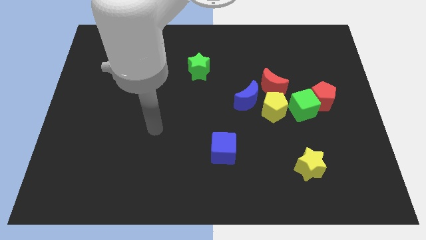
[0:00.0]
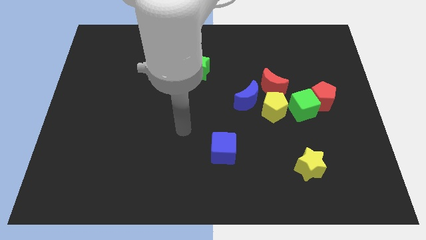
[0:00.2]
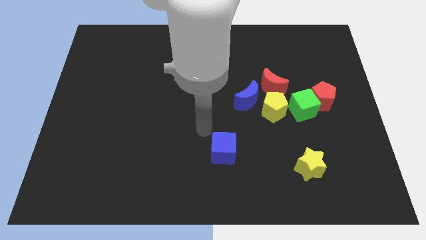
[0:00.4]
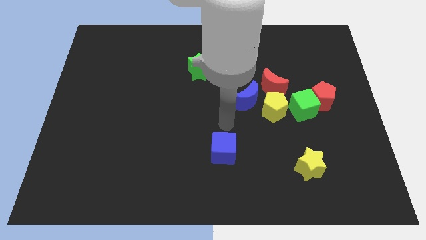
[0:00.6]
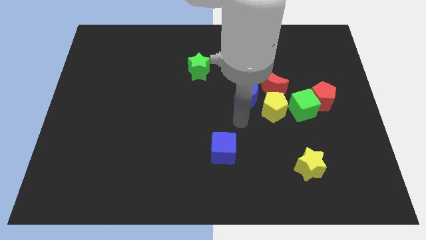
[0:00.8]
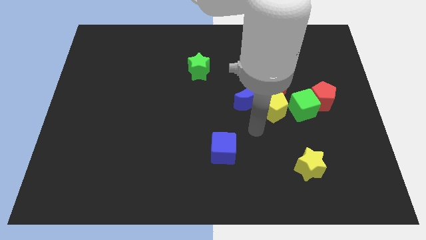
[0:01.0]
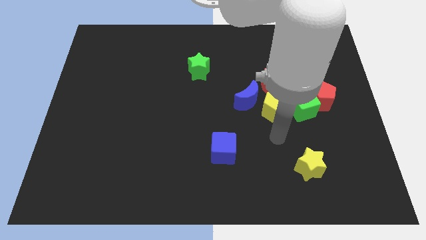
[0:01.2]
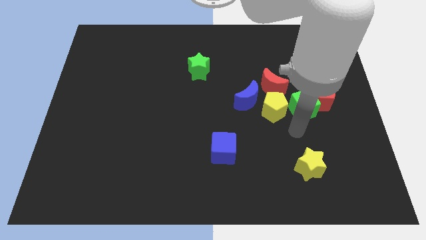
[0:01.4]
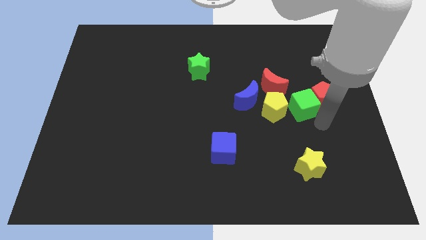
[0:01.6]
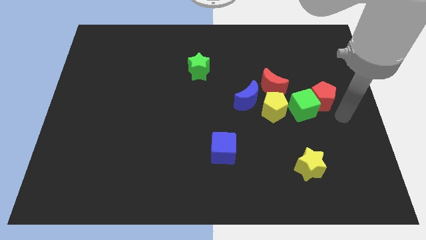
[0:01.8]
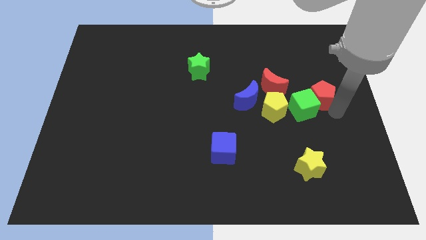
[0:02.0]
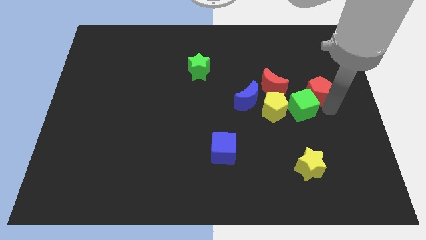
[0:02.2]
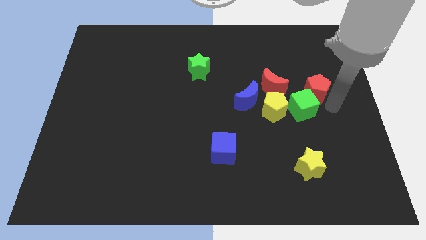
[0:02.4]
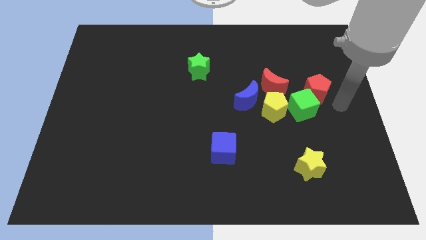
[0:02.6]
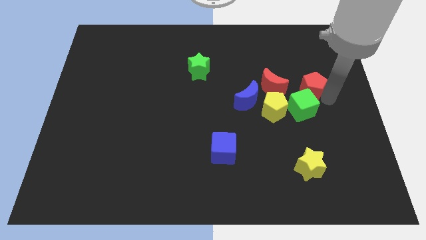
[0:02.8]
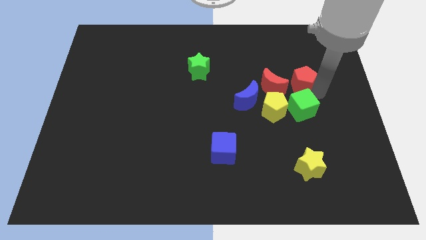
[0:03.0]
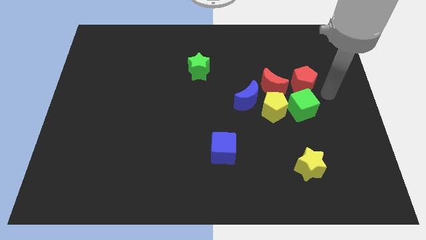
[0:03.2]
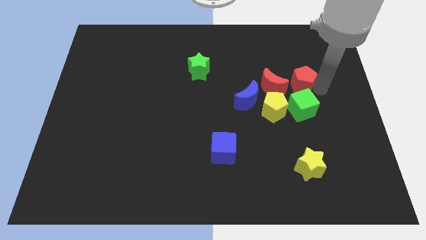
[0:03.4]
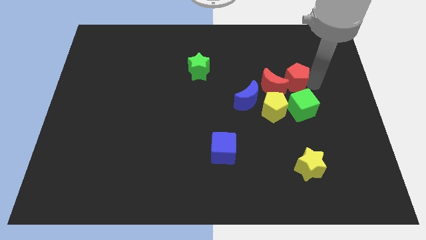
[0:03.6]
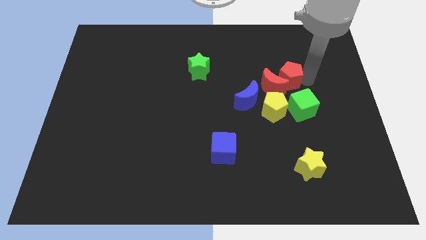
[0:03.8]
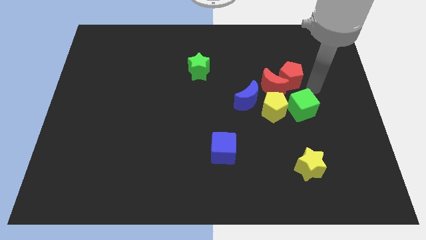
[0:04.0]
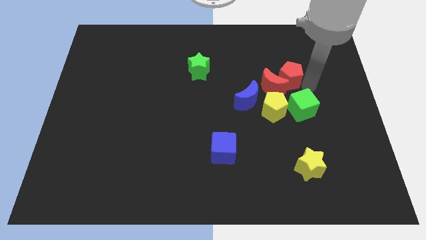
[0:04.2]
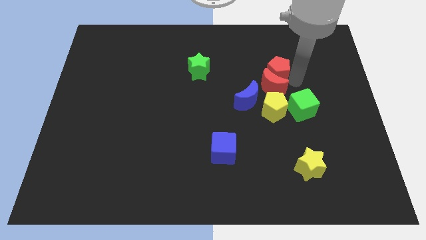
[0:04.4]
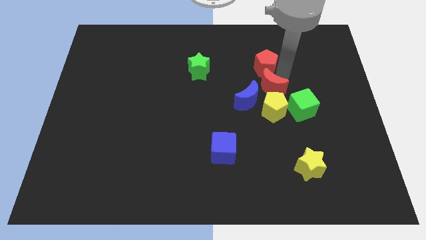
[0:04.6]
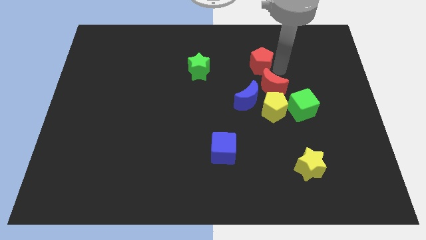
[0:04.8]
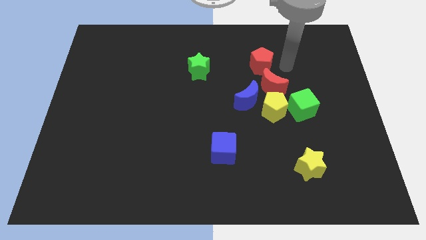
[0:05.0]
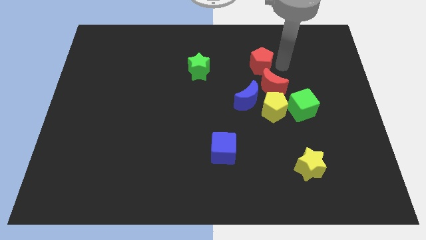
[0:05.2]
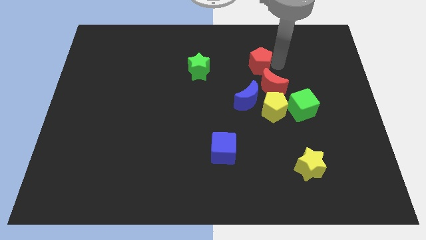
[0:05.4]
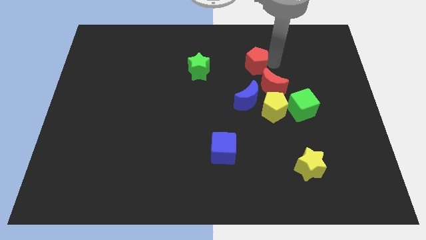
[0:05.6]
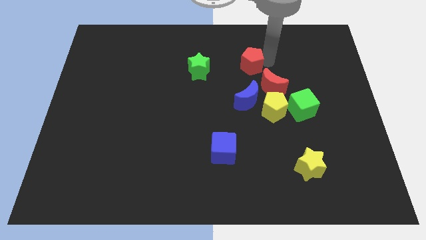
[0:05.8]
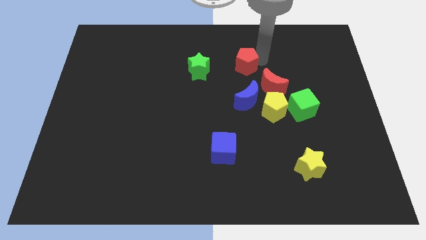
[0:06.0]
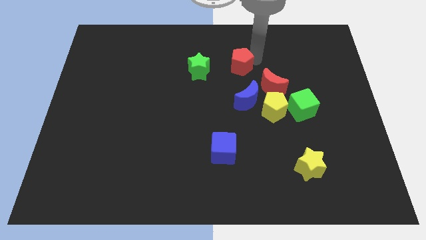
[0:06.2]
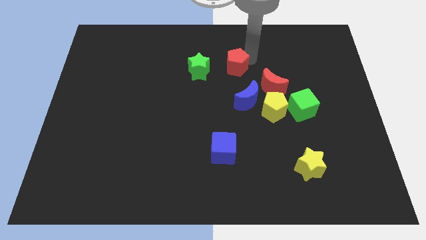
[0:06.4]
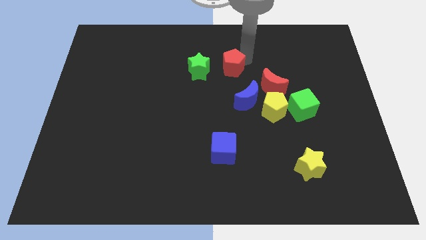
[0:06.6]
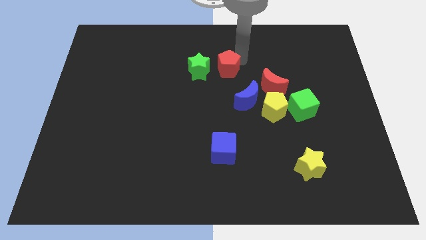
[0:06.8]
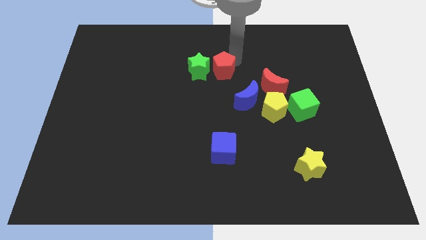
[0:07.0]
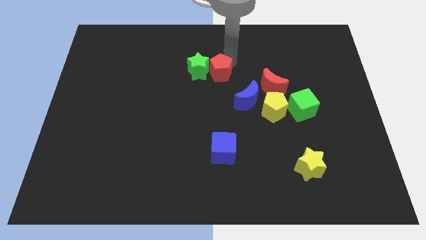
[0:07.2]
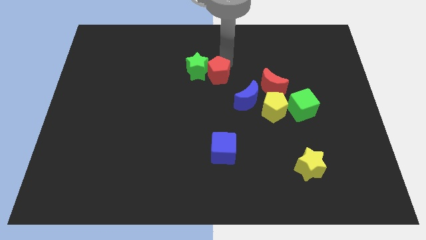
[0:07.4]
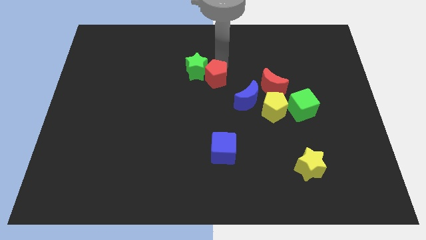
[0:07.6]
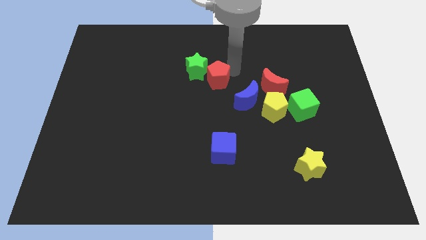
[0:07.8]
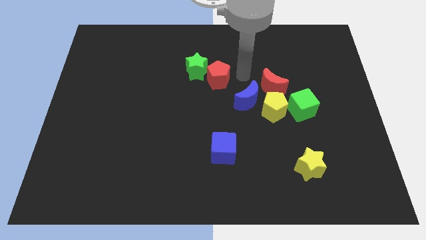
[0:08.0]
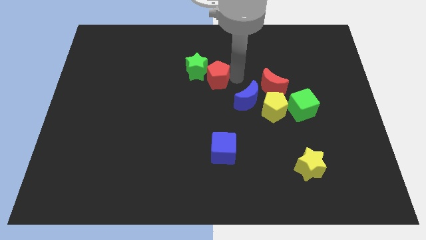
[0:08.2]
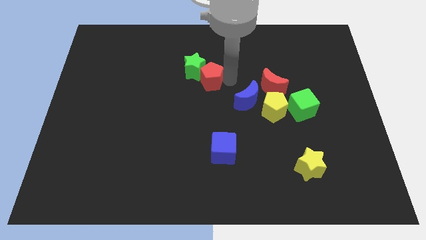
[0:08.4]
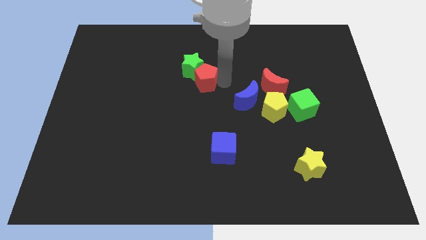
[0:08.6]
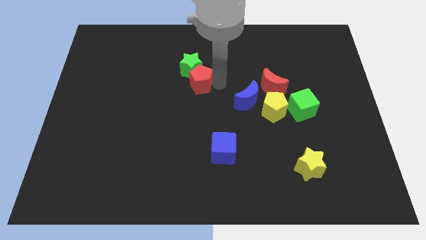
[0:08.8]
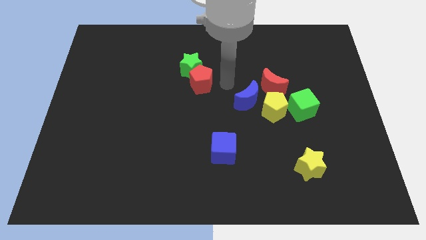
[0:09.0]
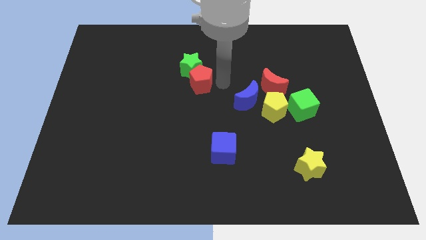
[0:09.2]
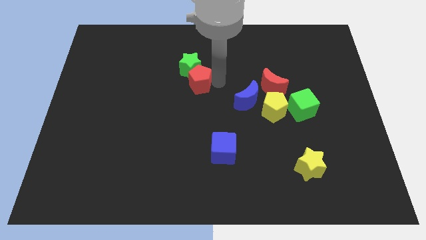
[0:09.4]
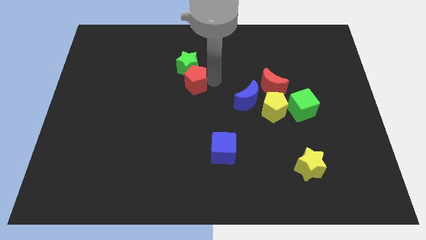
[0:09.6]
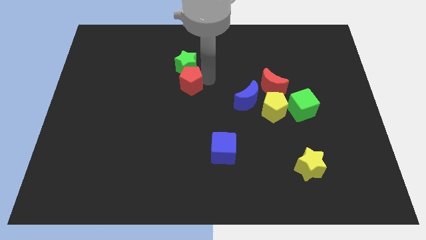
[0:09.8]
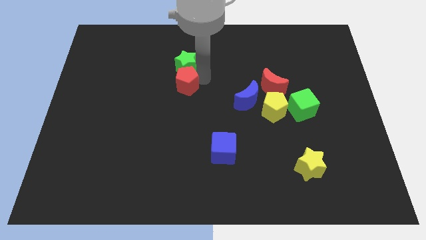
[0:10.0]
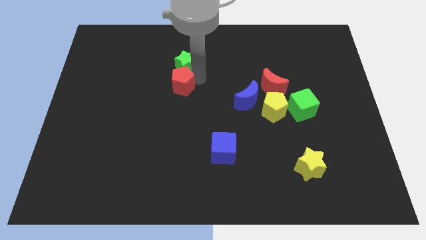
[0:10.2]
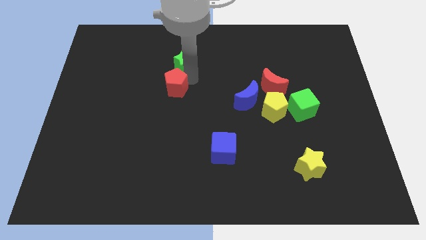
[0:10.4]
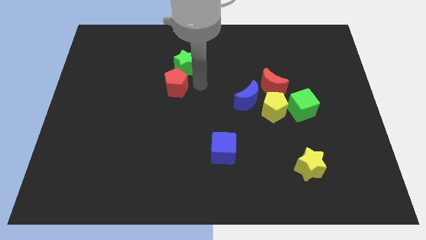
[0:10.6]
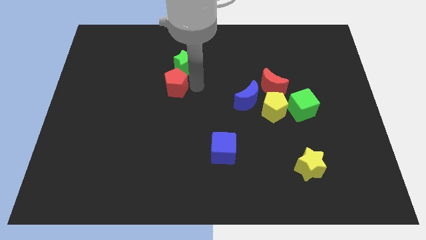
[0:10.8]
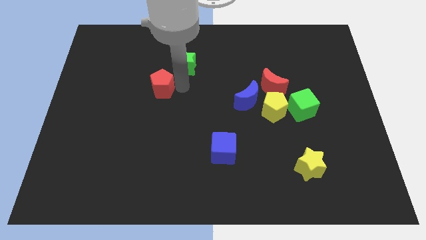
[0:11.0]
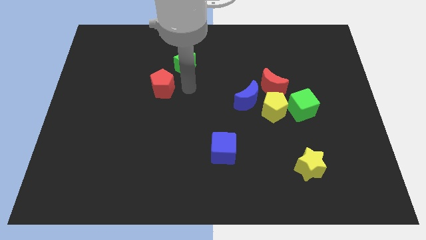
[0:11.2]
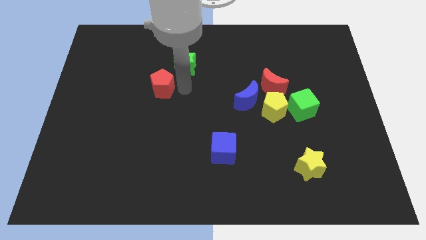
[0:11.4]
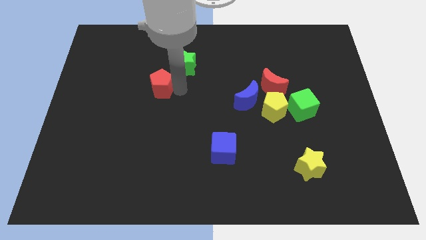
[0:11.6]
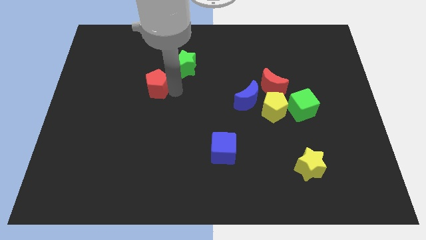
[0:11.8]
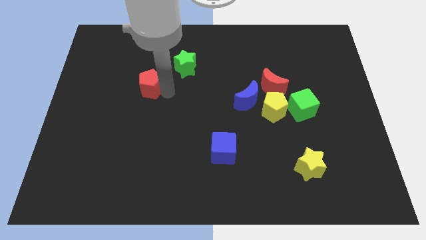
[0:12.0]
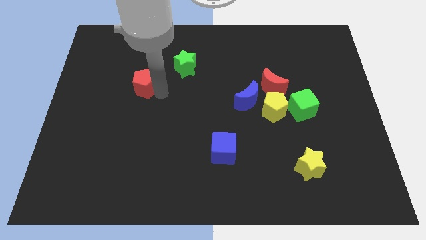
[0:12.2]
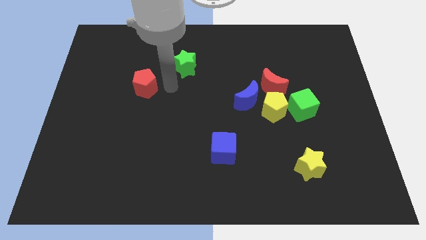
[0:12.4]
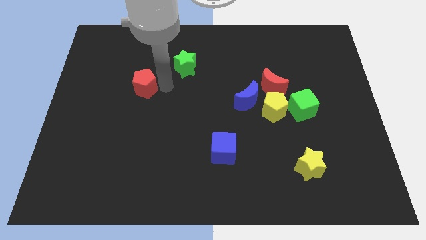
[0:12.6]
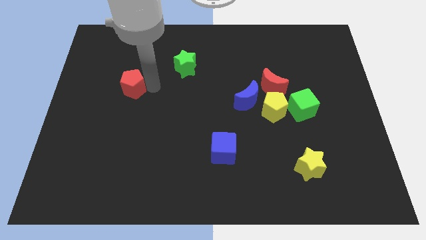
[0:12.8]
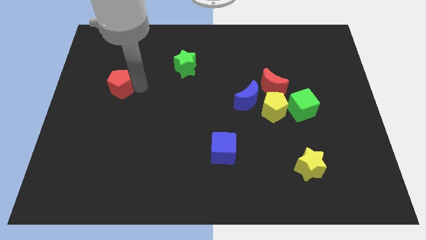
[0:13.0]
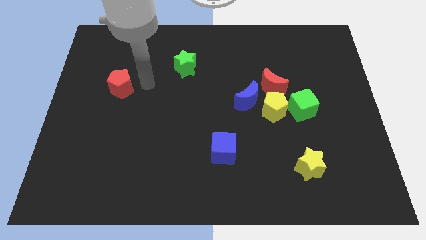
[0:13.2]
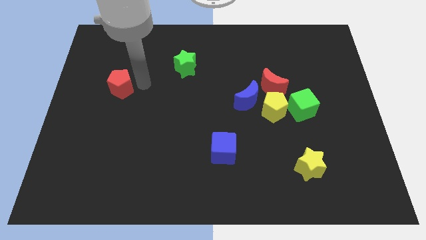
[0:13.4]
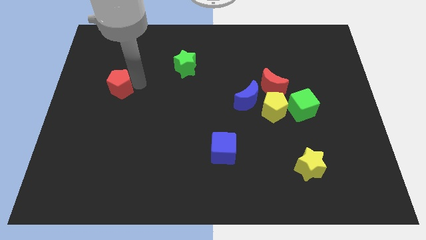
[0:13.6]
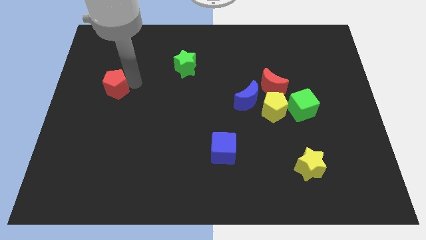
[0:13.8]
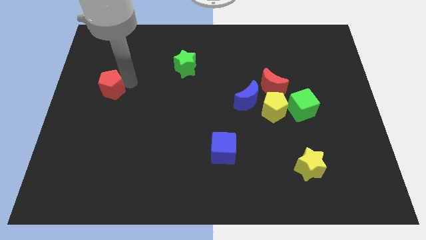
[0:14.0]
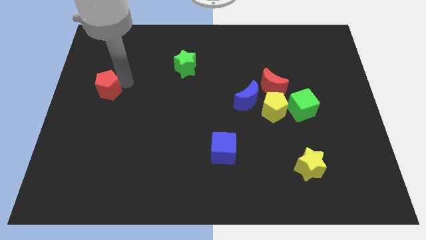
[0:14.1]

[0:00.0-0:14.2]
put the red pentagon to the left side
